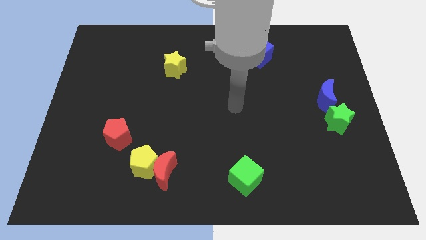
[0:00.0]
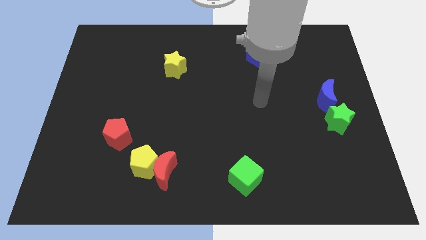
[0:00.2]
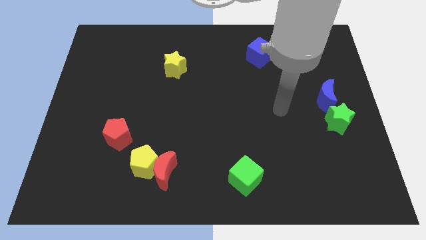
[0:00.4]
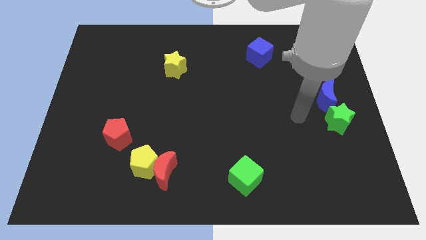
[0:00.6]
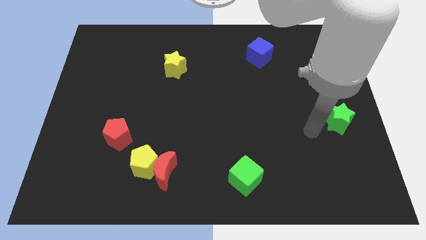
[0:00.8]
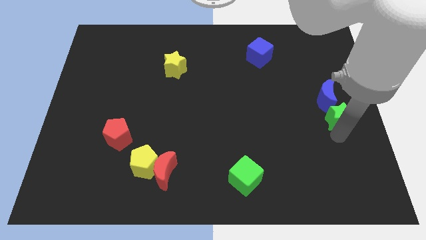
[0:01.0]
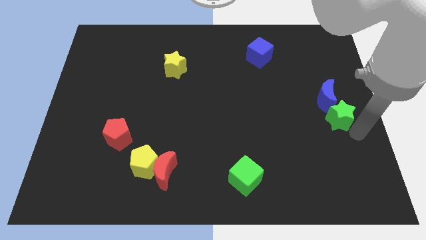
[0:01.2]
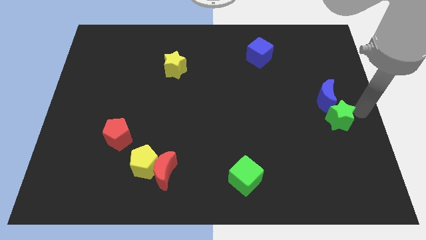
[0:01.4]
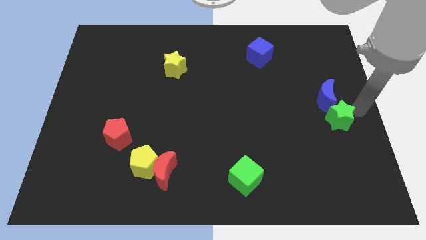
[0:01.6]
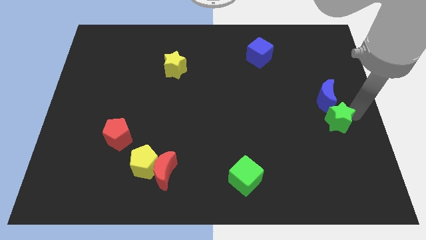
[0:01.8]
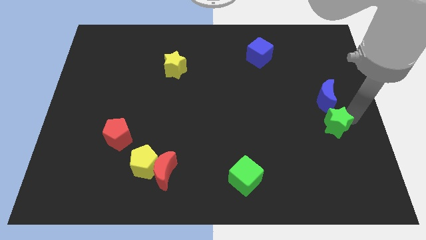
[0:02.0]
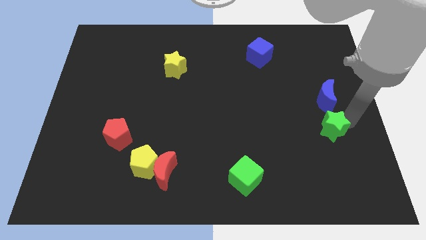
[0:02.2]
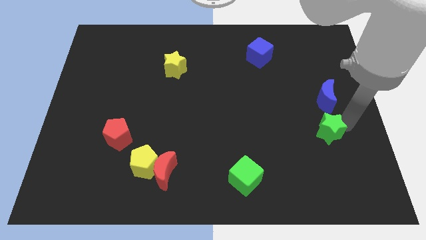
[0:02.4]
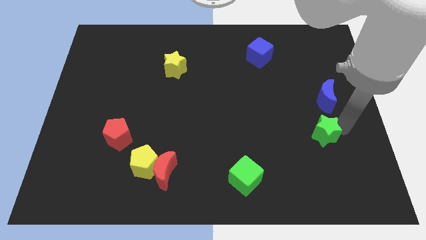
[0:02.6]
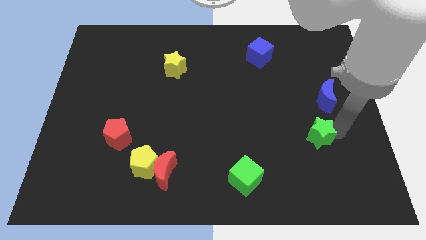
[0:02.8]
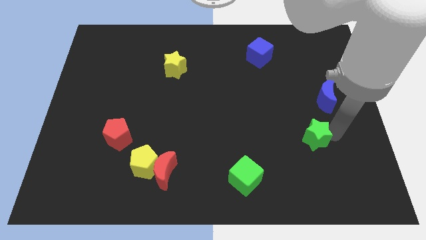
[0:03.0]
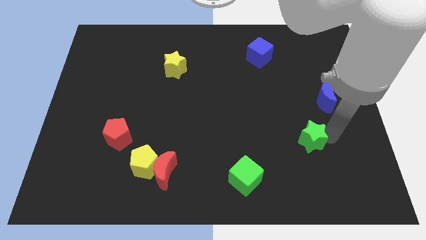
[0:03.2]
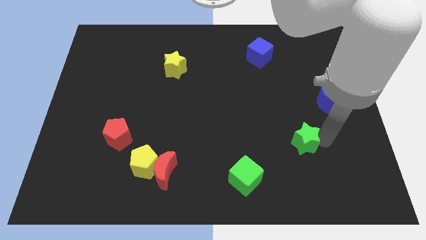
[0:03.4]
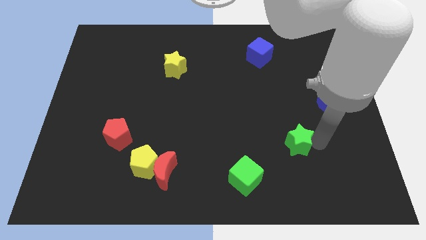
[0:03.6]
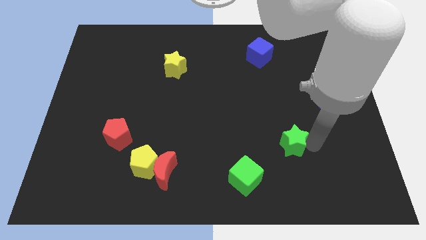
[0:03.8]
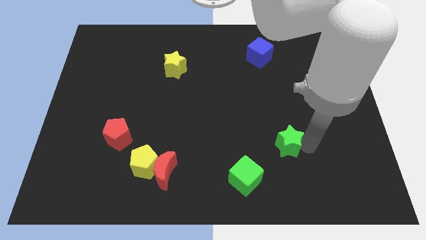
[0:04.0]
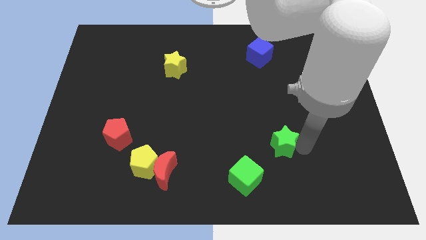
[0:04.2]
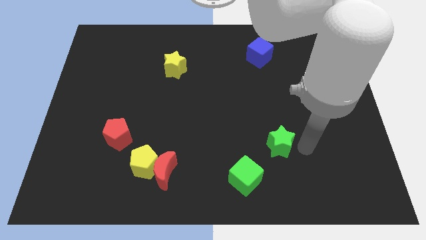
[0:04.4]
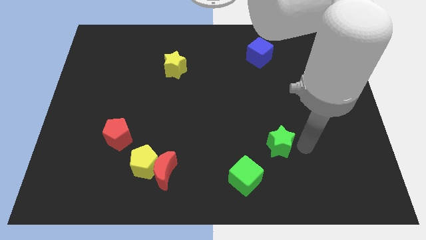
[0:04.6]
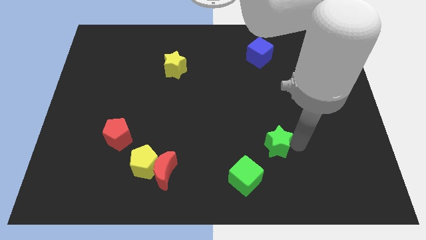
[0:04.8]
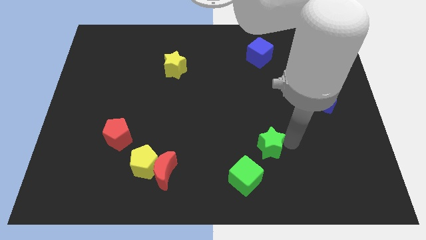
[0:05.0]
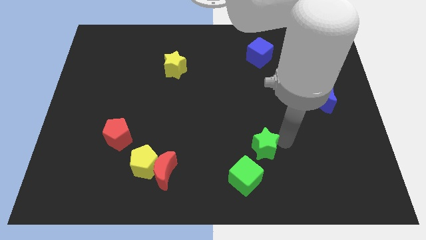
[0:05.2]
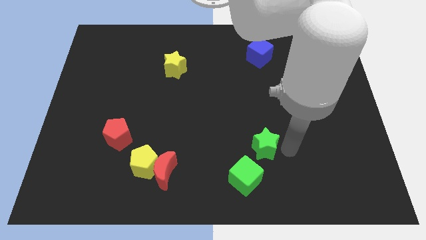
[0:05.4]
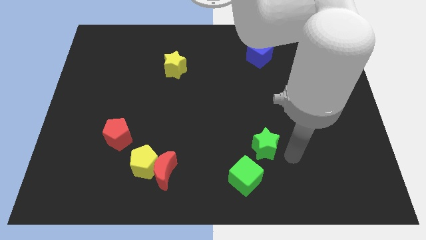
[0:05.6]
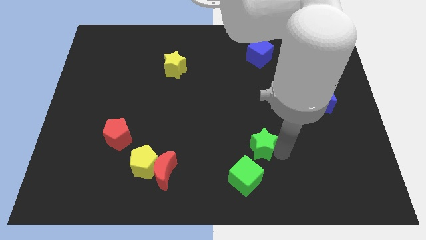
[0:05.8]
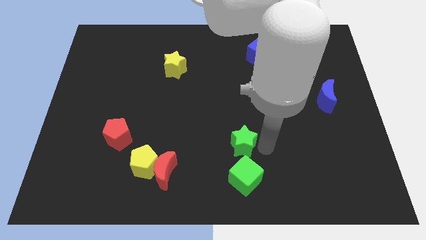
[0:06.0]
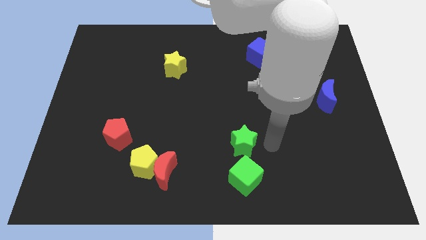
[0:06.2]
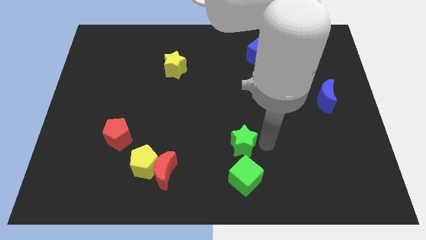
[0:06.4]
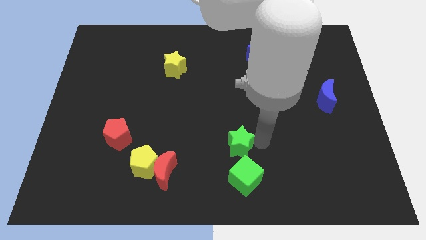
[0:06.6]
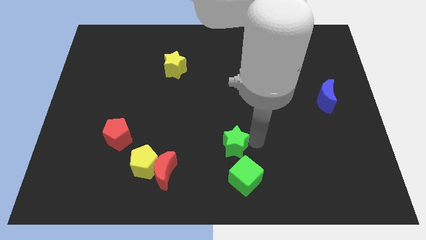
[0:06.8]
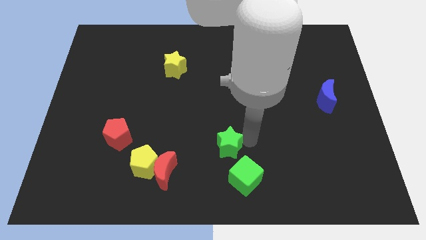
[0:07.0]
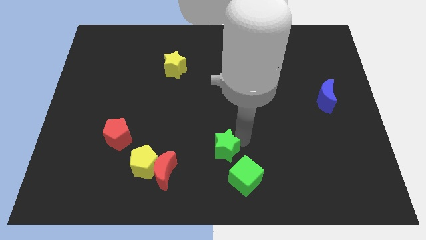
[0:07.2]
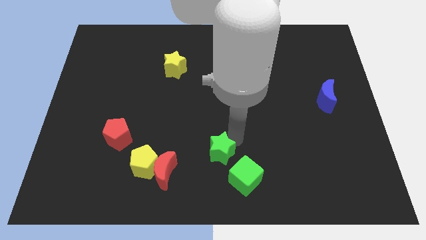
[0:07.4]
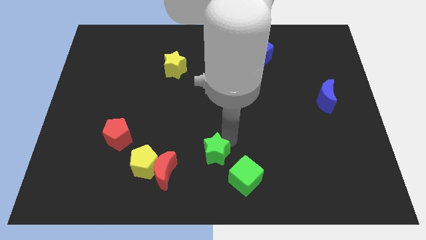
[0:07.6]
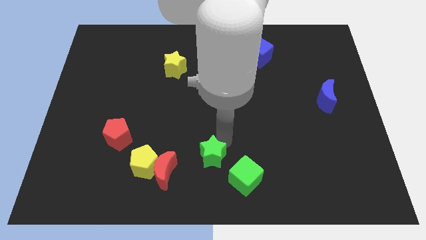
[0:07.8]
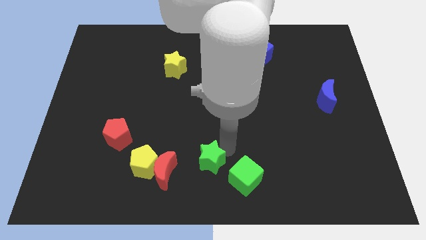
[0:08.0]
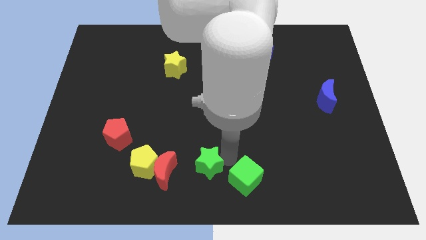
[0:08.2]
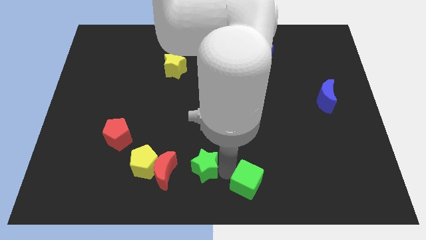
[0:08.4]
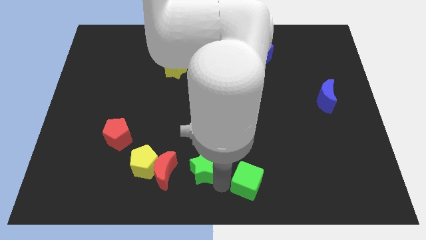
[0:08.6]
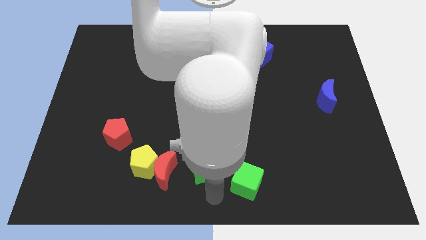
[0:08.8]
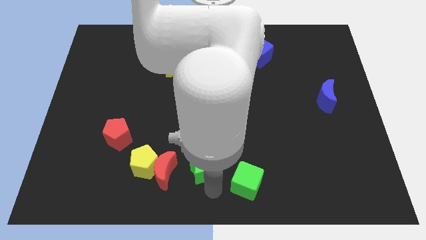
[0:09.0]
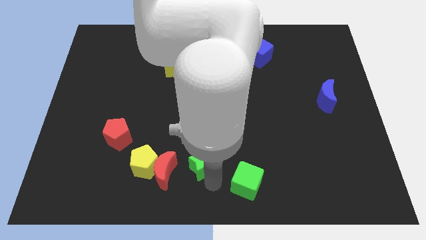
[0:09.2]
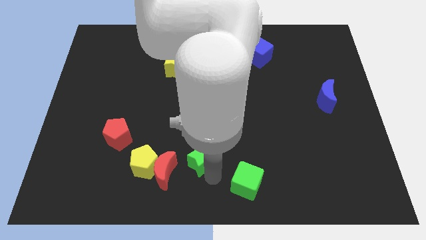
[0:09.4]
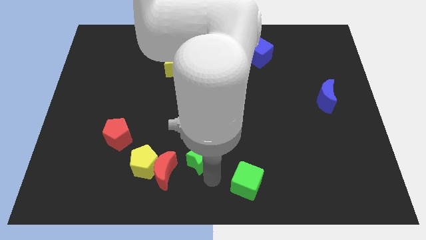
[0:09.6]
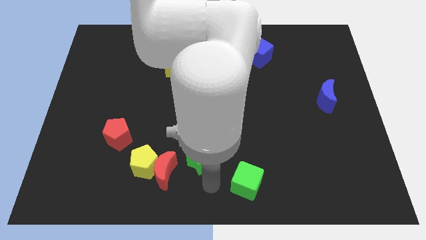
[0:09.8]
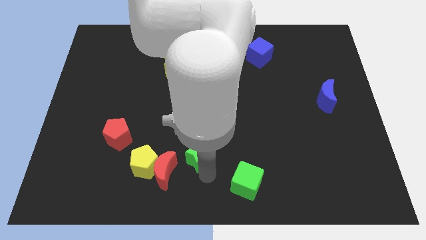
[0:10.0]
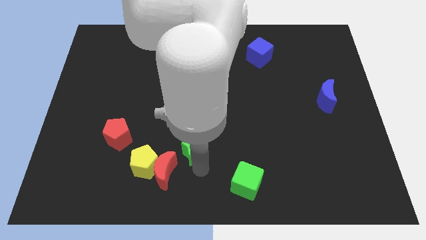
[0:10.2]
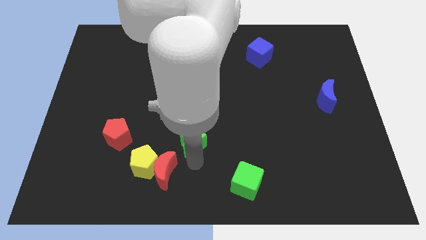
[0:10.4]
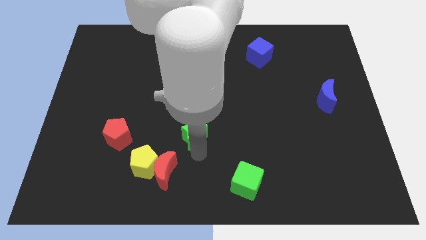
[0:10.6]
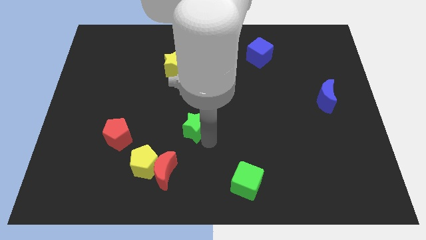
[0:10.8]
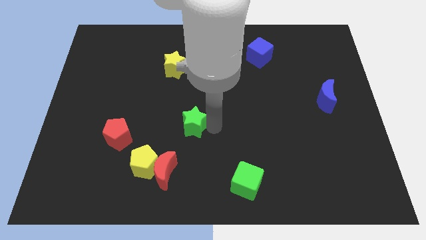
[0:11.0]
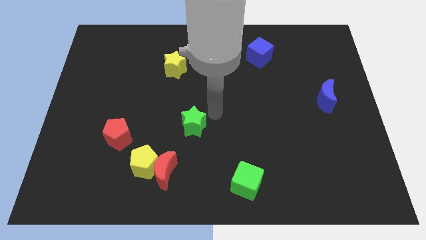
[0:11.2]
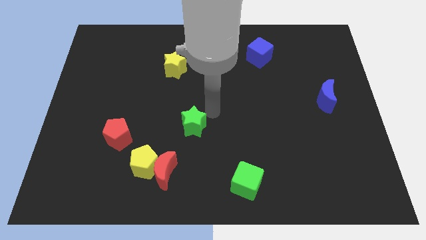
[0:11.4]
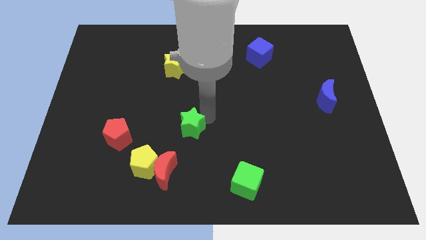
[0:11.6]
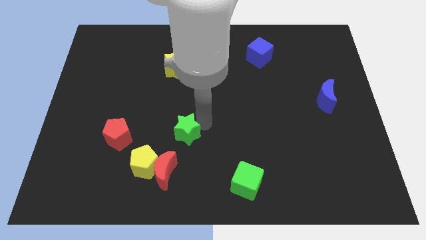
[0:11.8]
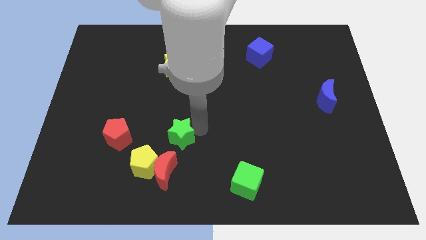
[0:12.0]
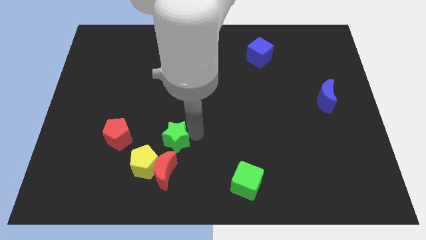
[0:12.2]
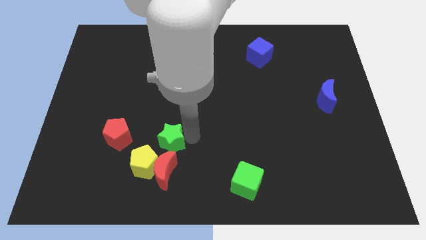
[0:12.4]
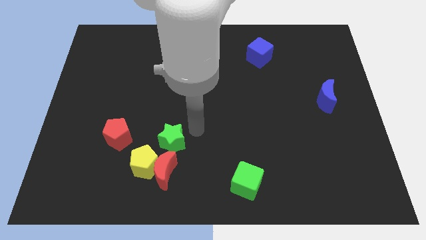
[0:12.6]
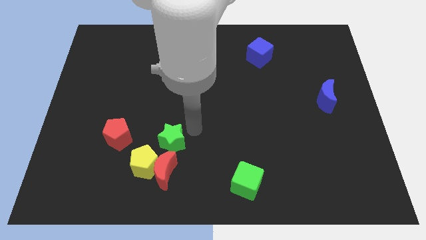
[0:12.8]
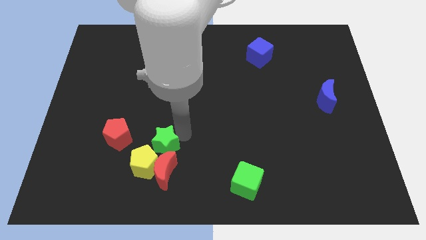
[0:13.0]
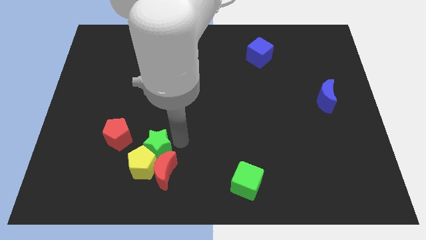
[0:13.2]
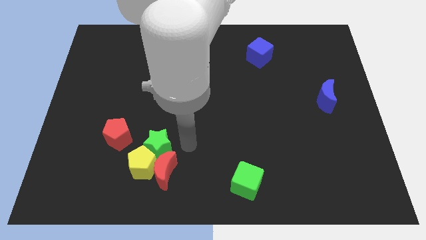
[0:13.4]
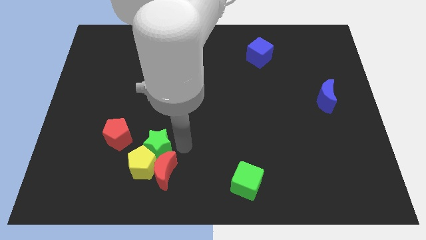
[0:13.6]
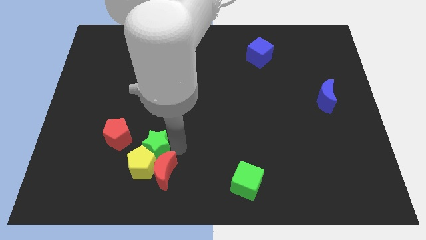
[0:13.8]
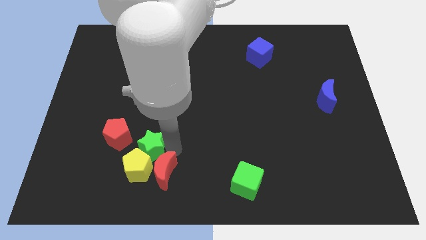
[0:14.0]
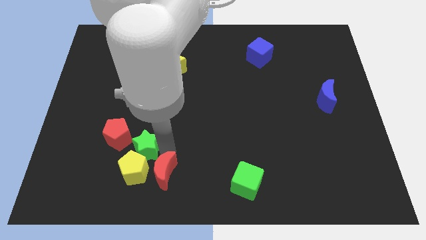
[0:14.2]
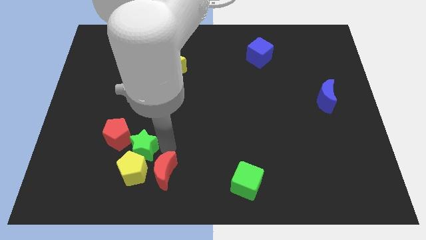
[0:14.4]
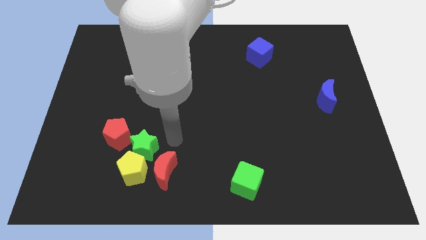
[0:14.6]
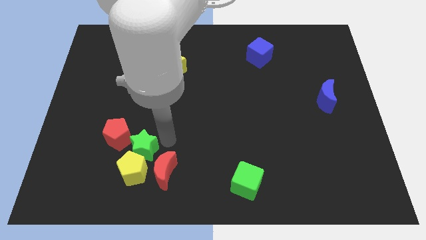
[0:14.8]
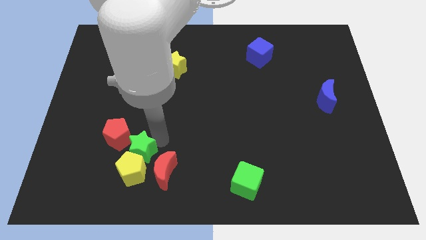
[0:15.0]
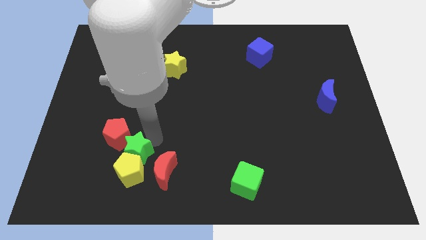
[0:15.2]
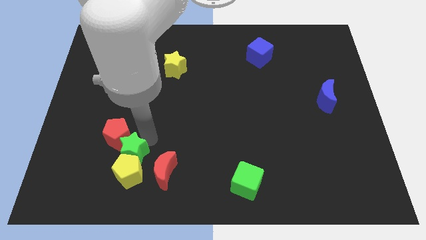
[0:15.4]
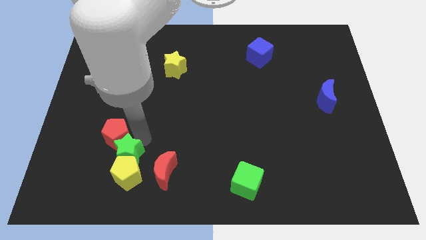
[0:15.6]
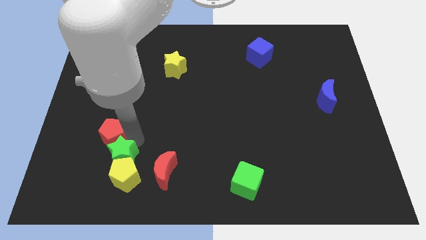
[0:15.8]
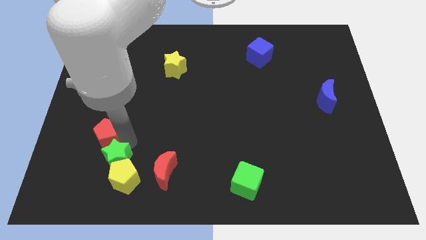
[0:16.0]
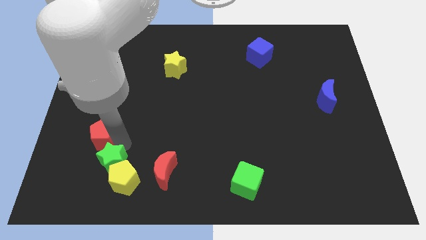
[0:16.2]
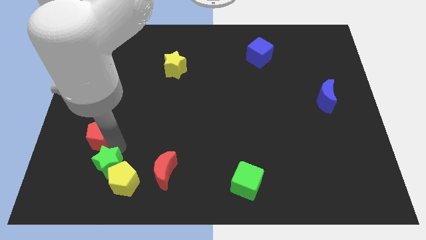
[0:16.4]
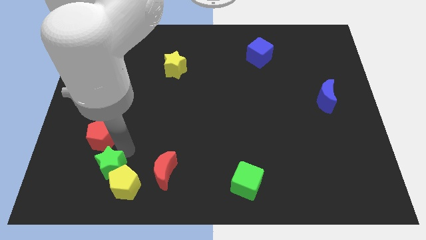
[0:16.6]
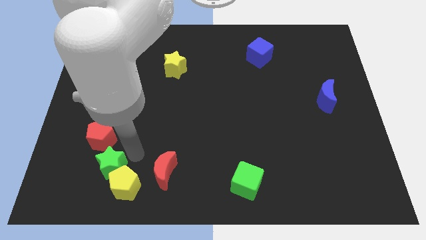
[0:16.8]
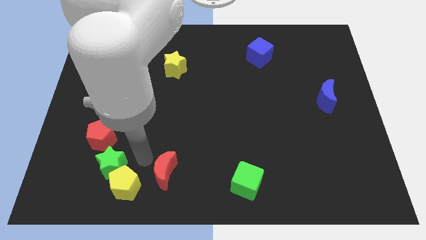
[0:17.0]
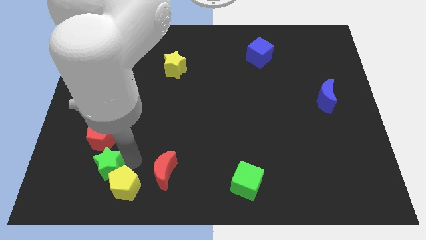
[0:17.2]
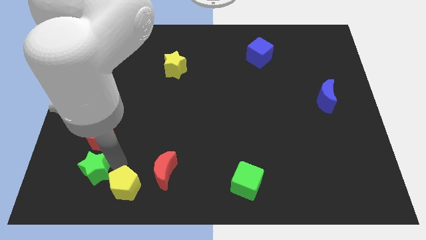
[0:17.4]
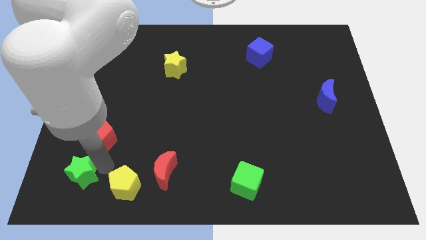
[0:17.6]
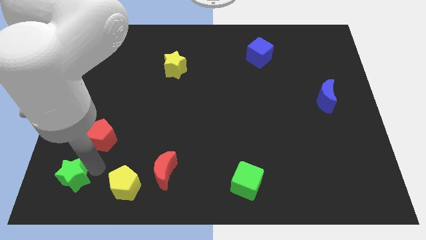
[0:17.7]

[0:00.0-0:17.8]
slide the green star to the bottom left
